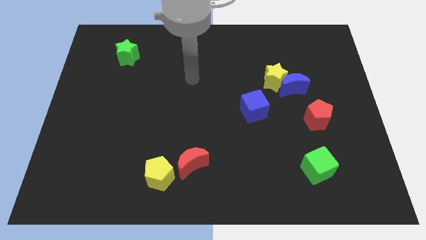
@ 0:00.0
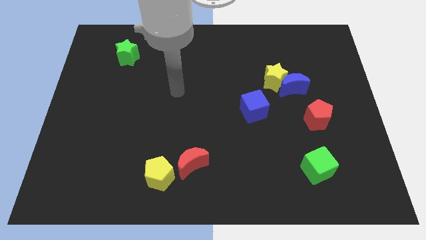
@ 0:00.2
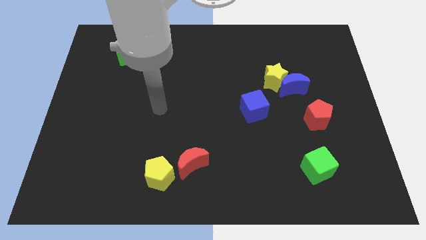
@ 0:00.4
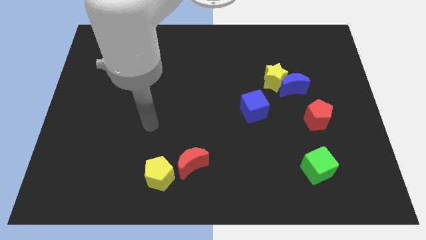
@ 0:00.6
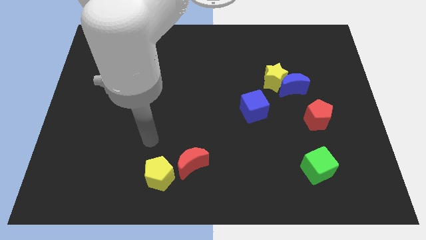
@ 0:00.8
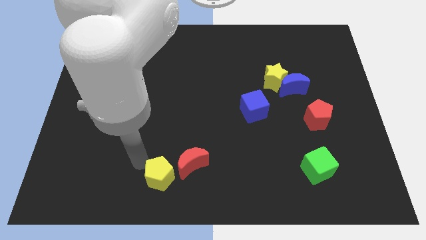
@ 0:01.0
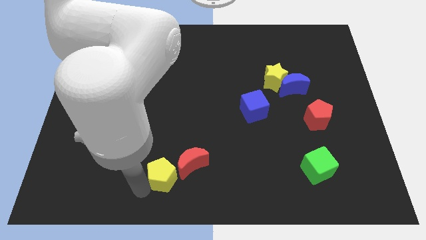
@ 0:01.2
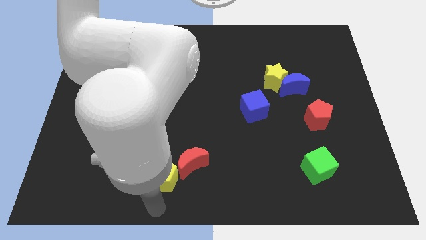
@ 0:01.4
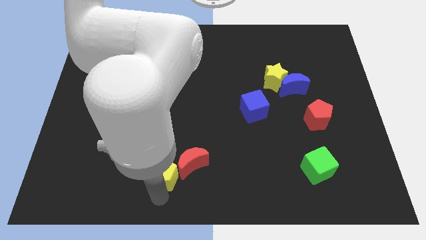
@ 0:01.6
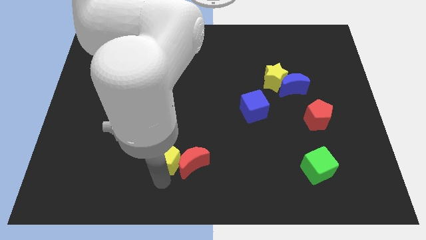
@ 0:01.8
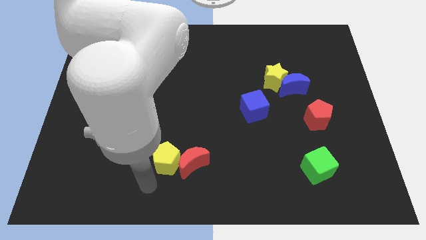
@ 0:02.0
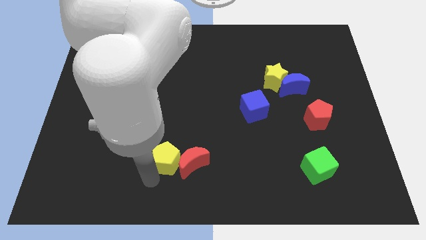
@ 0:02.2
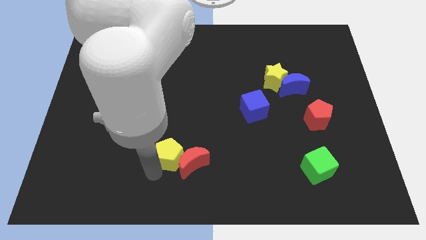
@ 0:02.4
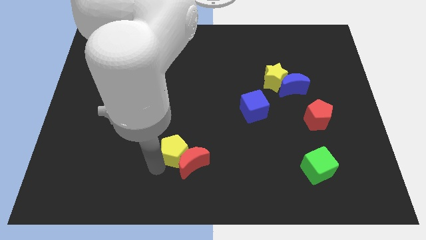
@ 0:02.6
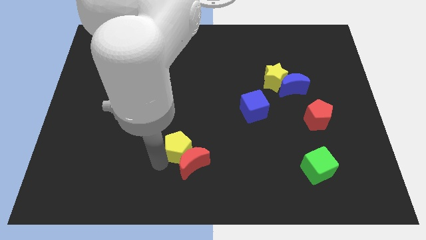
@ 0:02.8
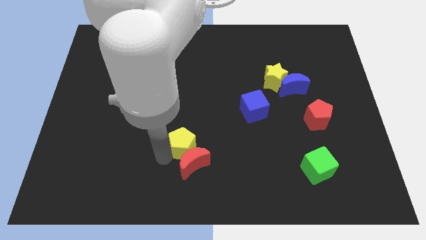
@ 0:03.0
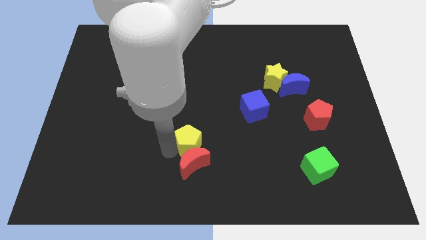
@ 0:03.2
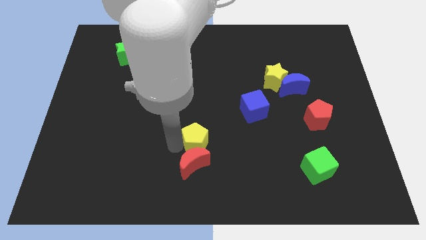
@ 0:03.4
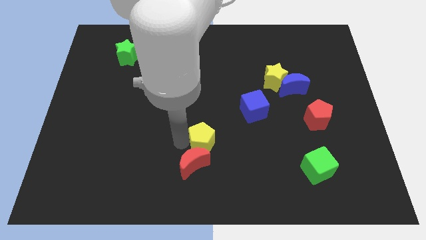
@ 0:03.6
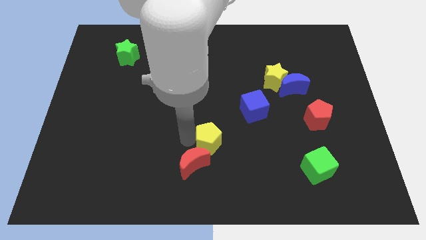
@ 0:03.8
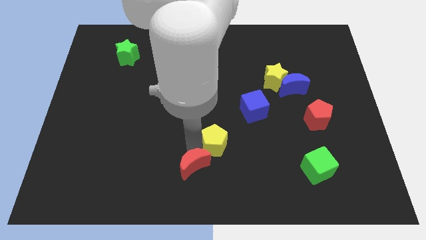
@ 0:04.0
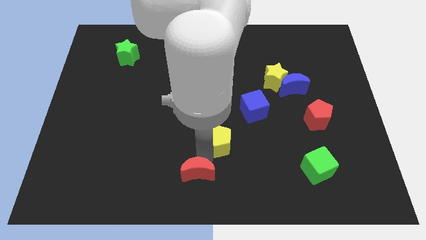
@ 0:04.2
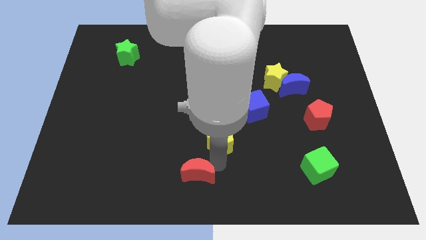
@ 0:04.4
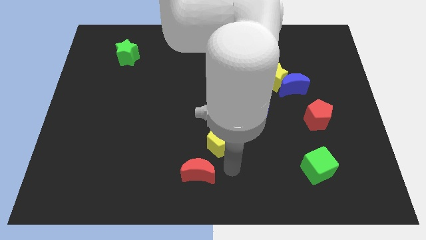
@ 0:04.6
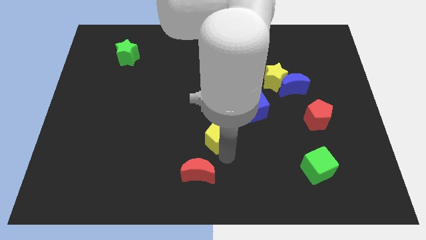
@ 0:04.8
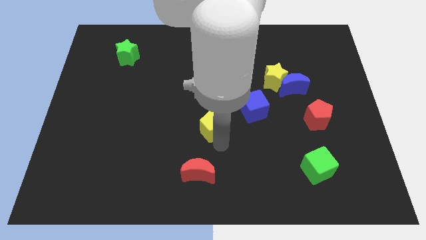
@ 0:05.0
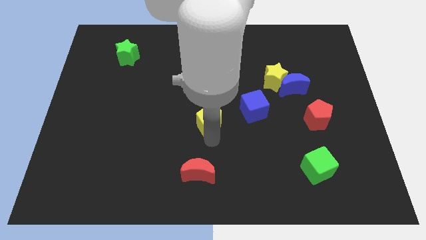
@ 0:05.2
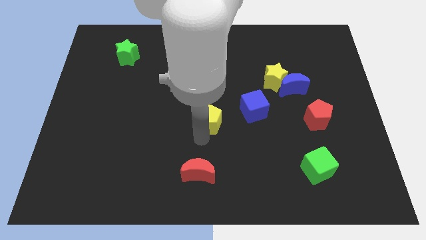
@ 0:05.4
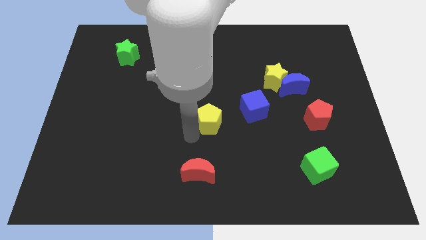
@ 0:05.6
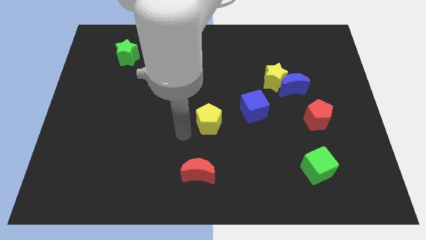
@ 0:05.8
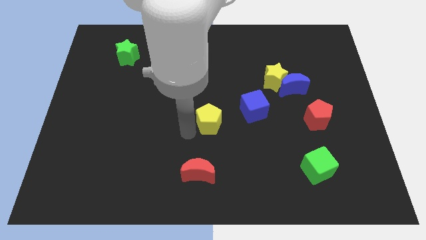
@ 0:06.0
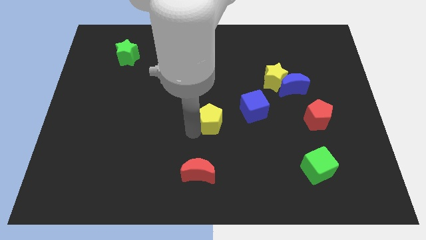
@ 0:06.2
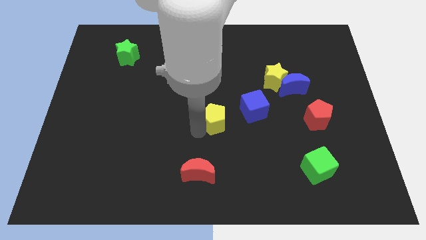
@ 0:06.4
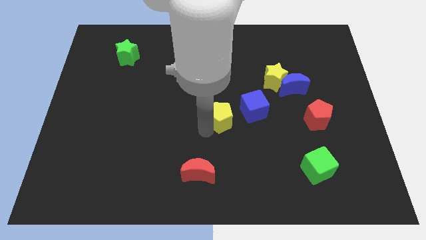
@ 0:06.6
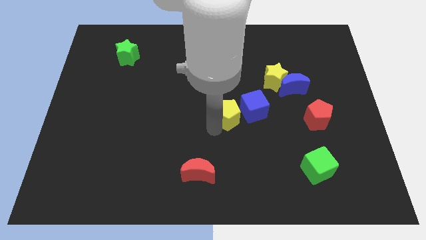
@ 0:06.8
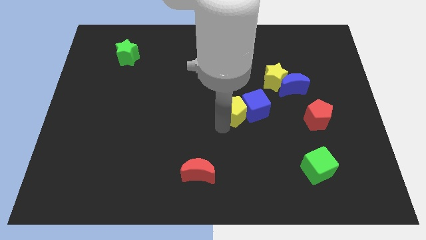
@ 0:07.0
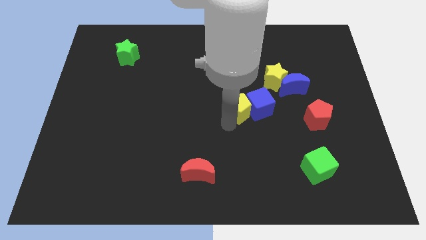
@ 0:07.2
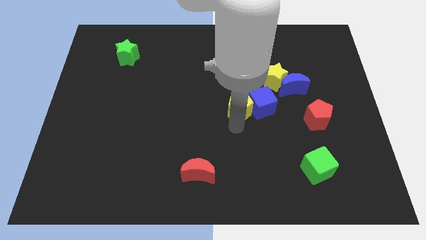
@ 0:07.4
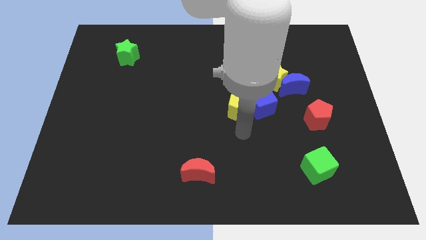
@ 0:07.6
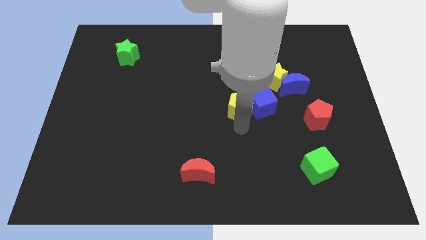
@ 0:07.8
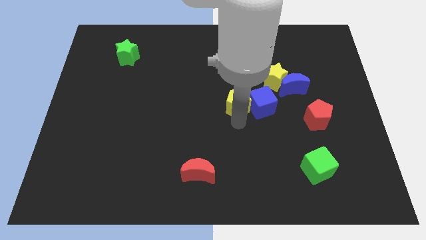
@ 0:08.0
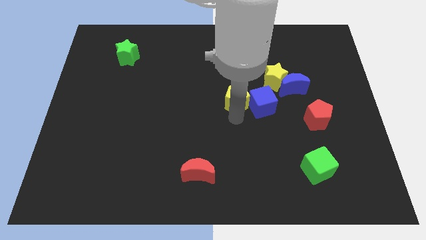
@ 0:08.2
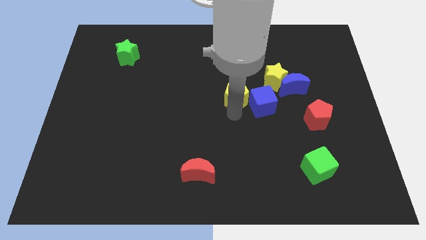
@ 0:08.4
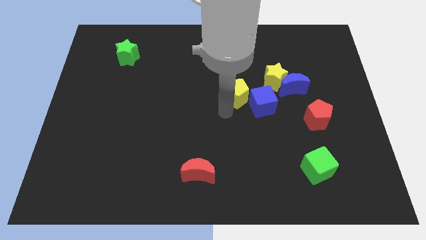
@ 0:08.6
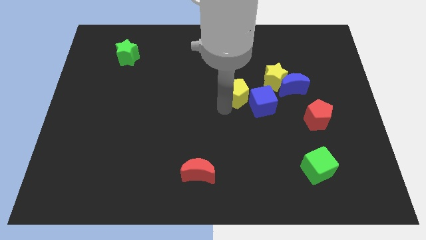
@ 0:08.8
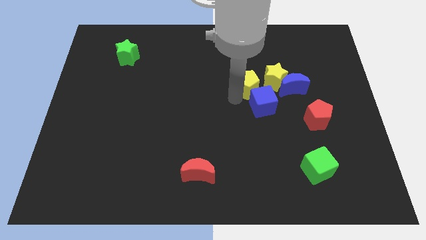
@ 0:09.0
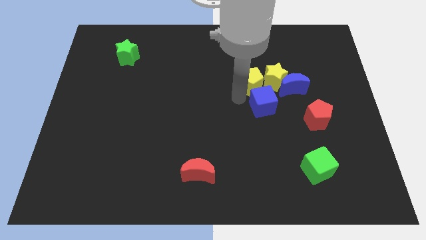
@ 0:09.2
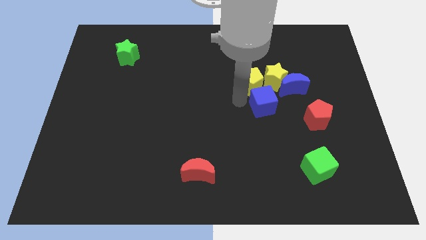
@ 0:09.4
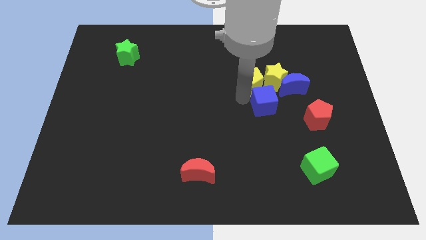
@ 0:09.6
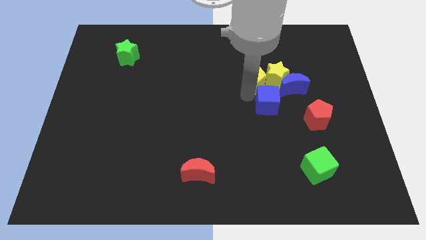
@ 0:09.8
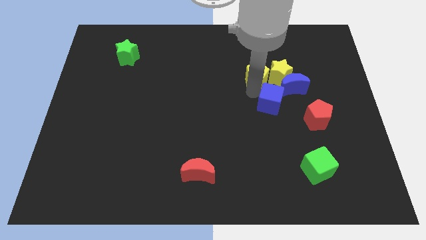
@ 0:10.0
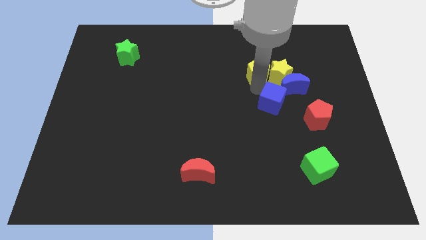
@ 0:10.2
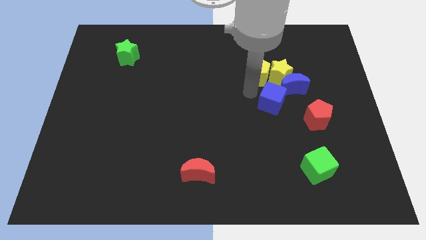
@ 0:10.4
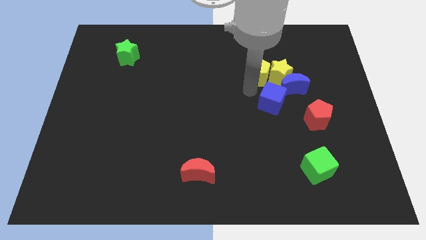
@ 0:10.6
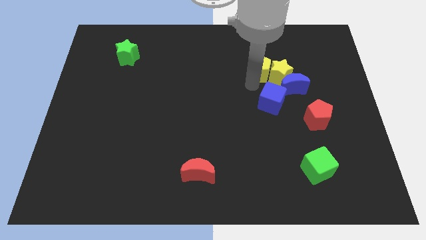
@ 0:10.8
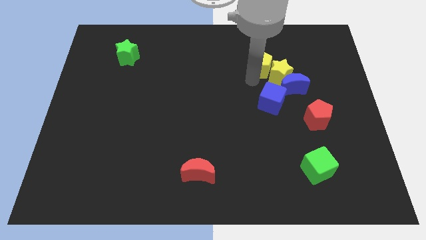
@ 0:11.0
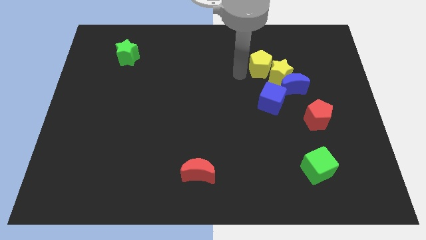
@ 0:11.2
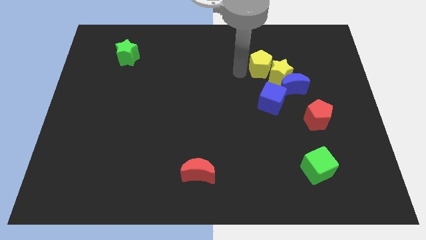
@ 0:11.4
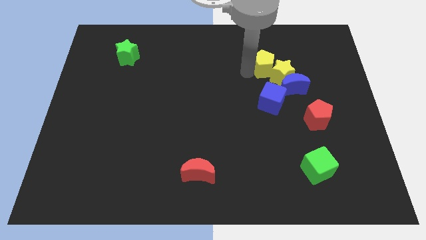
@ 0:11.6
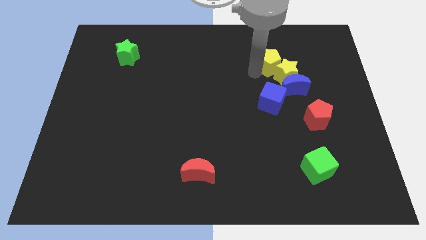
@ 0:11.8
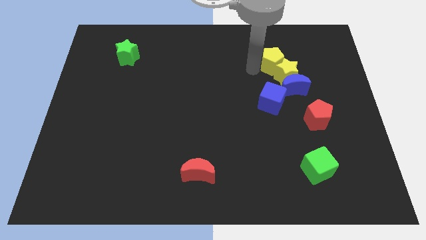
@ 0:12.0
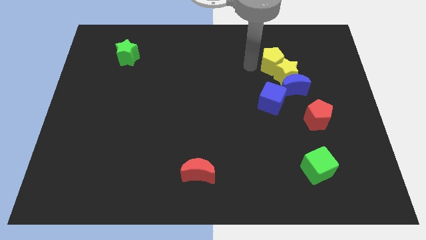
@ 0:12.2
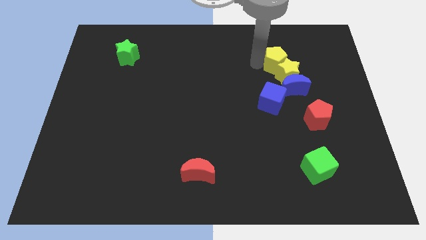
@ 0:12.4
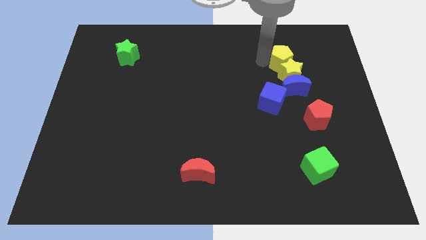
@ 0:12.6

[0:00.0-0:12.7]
move the yellow pentagon to the top right of the yellow star

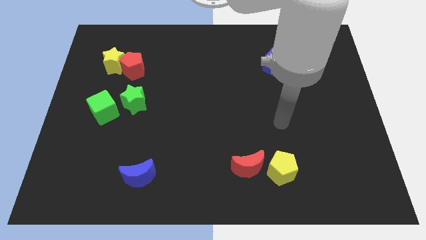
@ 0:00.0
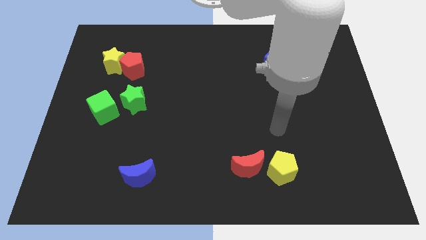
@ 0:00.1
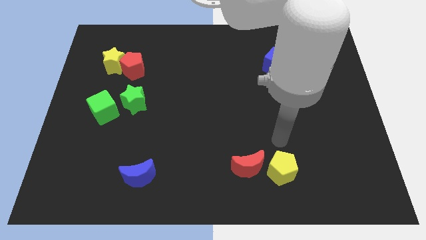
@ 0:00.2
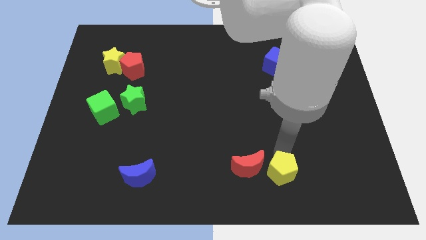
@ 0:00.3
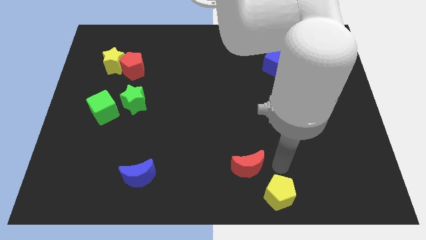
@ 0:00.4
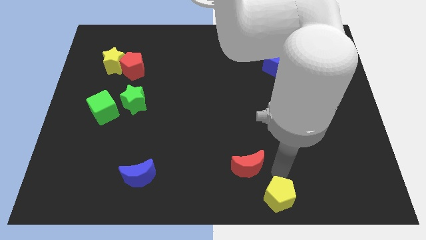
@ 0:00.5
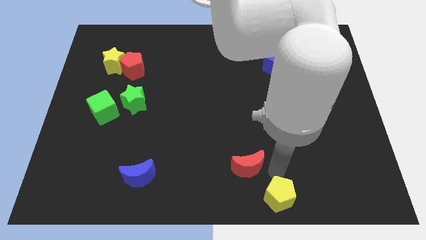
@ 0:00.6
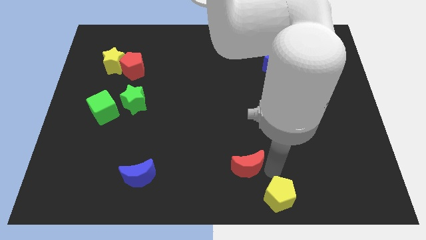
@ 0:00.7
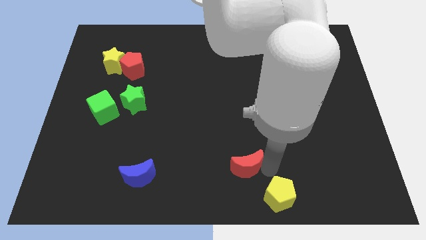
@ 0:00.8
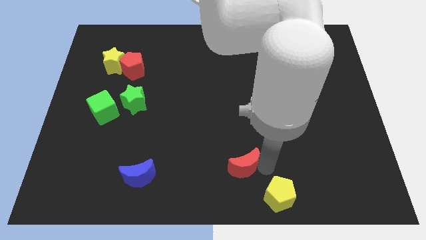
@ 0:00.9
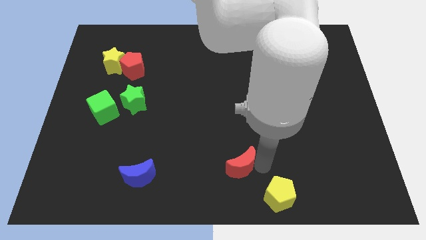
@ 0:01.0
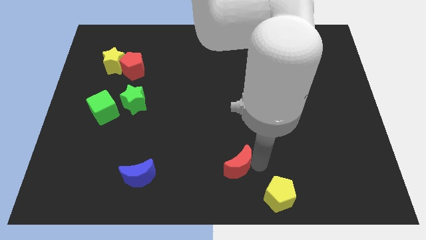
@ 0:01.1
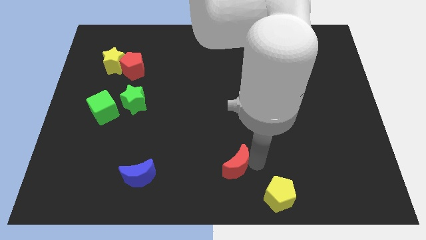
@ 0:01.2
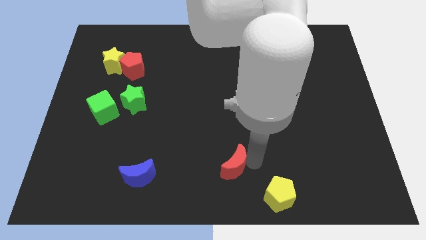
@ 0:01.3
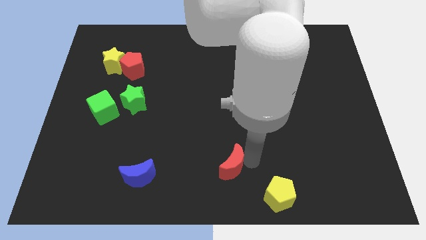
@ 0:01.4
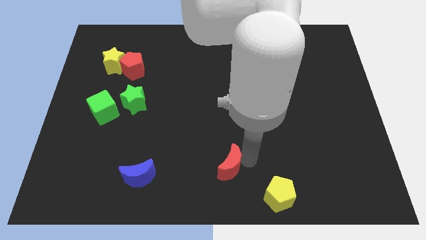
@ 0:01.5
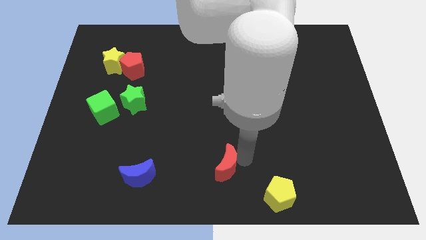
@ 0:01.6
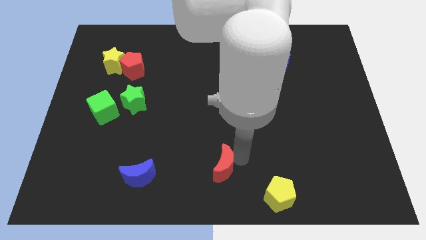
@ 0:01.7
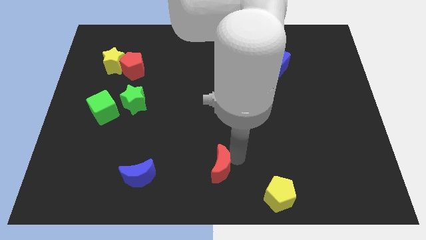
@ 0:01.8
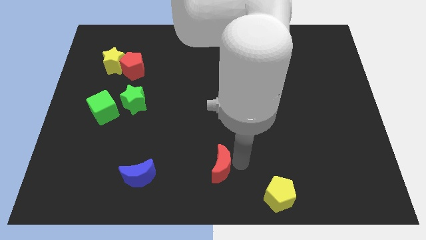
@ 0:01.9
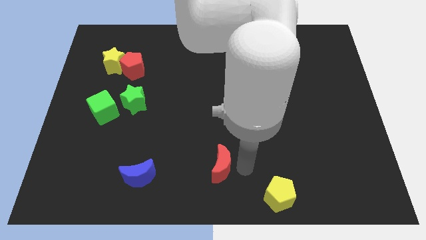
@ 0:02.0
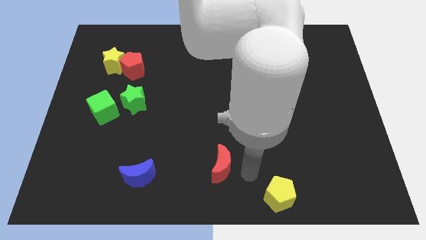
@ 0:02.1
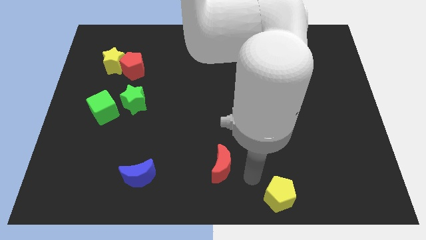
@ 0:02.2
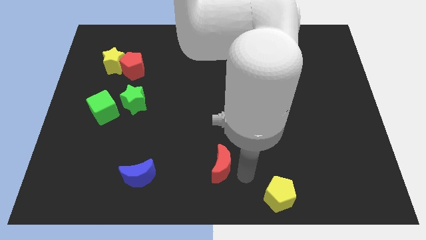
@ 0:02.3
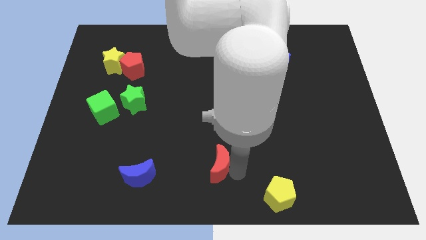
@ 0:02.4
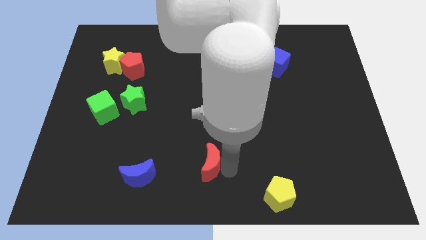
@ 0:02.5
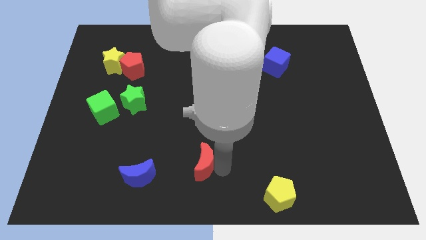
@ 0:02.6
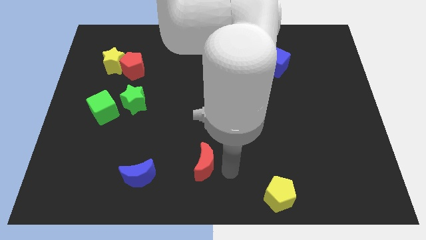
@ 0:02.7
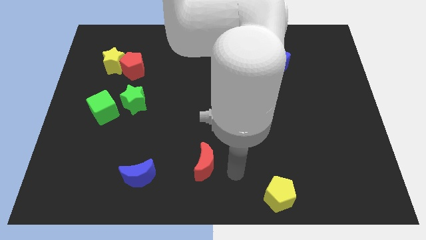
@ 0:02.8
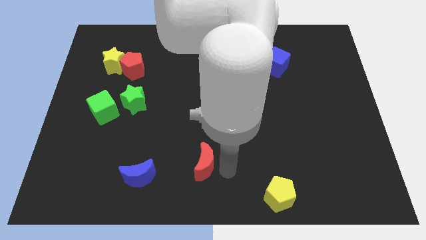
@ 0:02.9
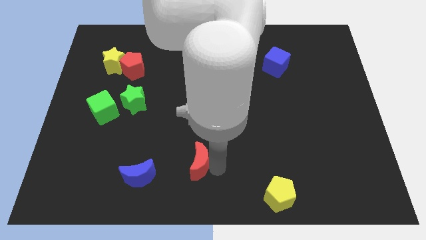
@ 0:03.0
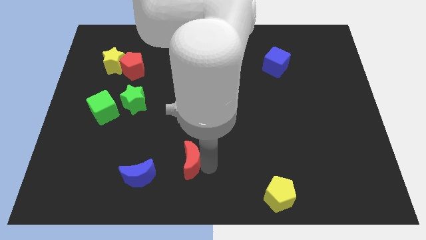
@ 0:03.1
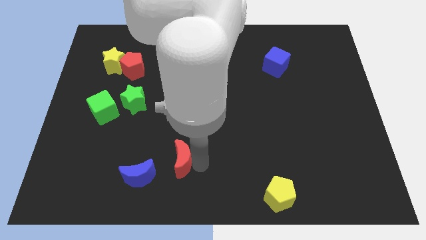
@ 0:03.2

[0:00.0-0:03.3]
move the red moon to the top right side of the blue moon
